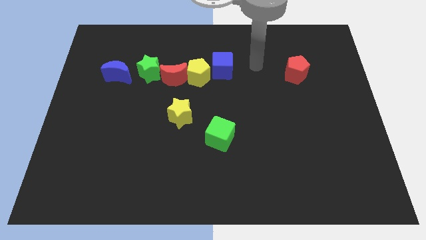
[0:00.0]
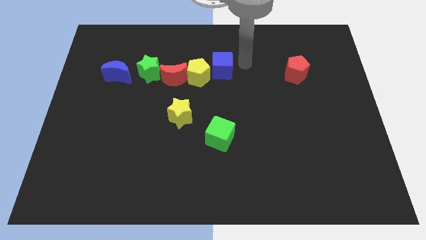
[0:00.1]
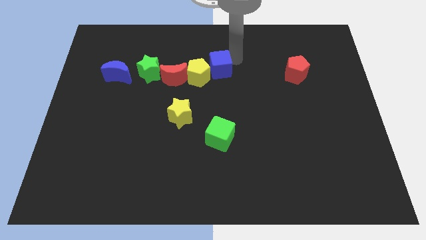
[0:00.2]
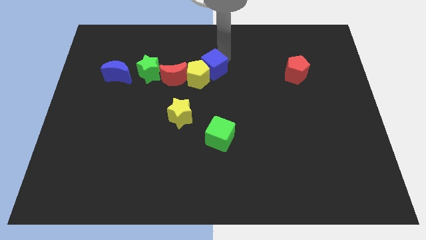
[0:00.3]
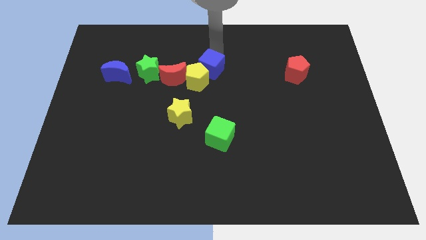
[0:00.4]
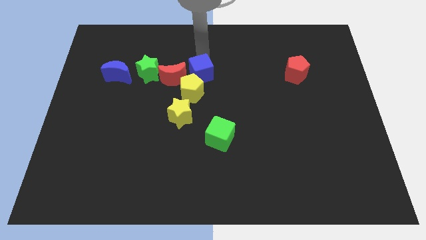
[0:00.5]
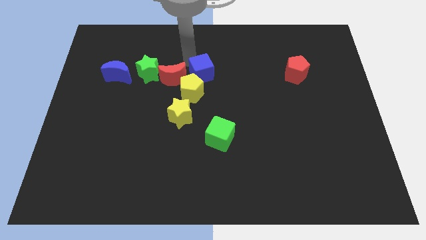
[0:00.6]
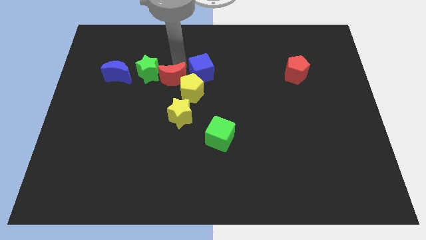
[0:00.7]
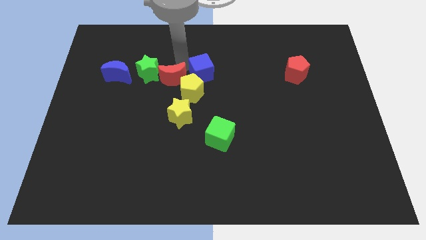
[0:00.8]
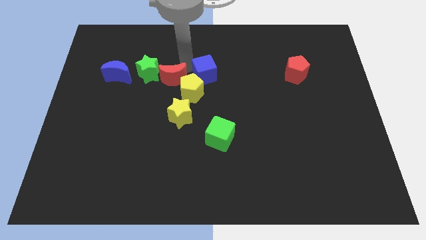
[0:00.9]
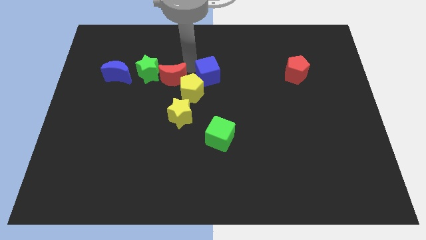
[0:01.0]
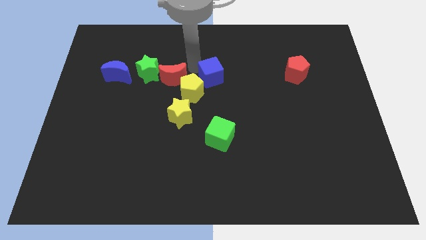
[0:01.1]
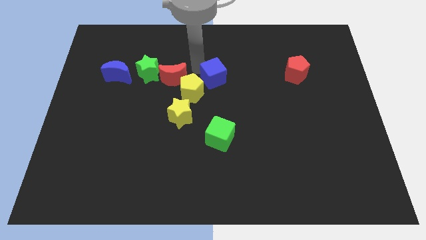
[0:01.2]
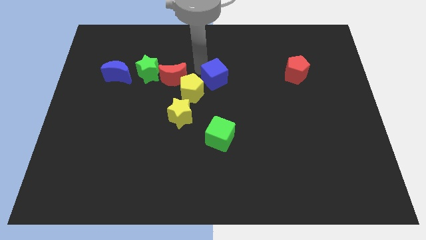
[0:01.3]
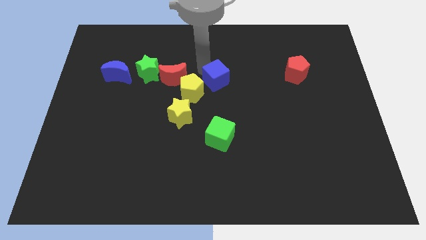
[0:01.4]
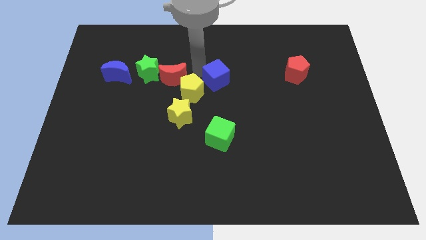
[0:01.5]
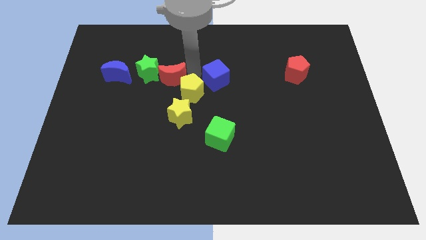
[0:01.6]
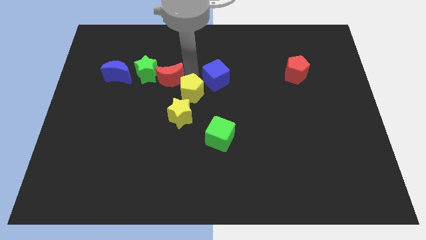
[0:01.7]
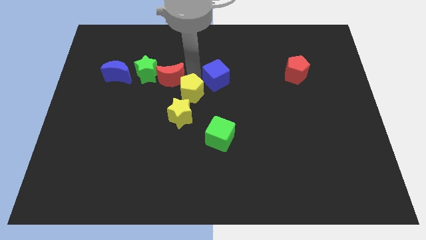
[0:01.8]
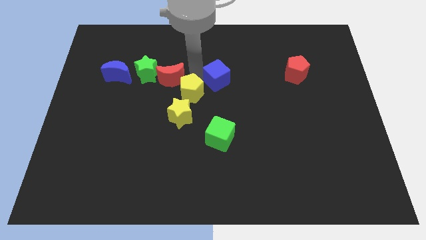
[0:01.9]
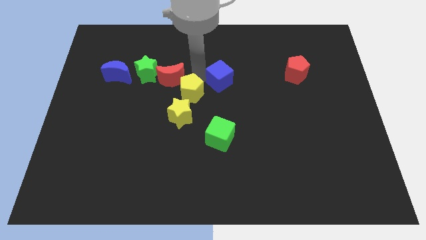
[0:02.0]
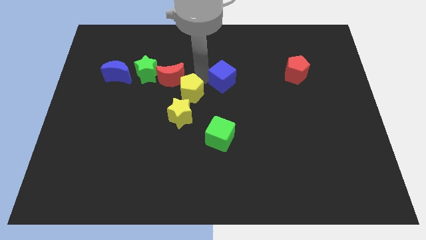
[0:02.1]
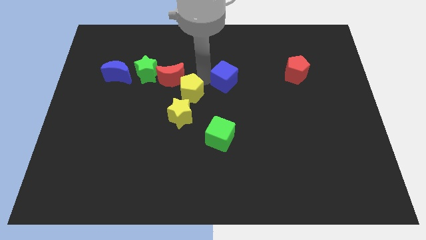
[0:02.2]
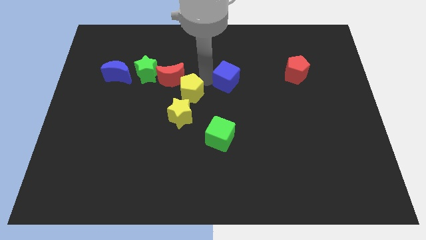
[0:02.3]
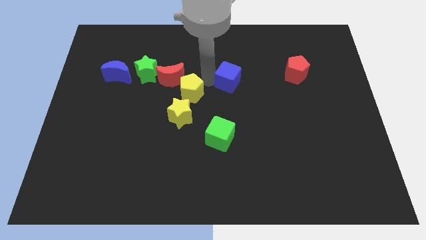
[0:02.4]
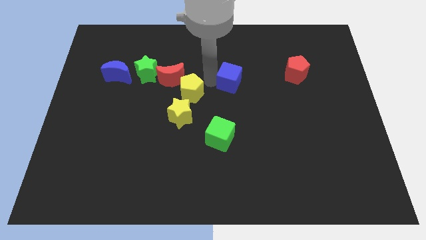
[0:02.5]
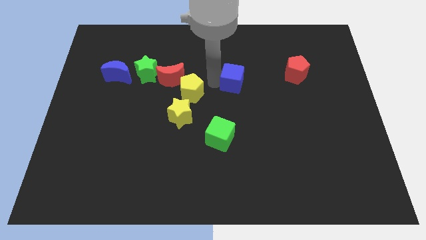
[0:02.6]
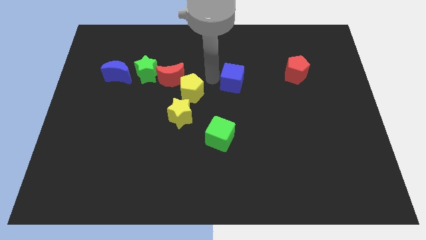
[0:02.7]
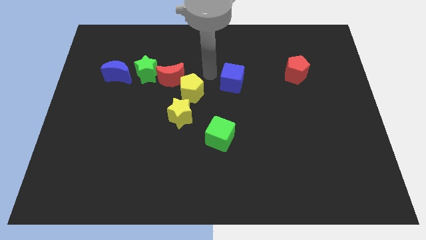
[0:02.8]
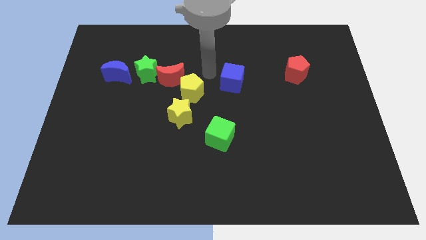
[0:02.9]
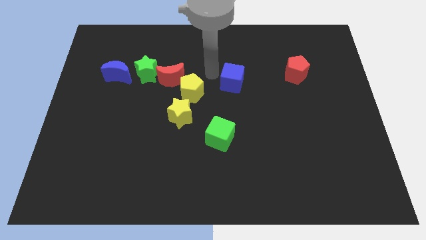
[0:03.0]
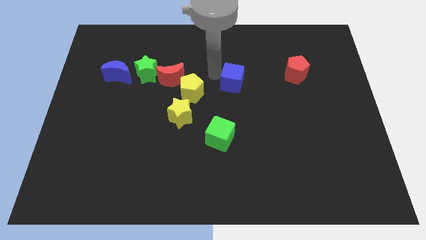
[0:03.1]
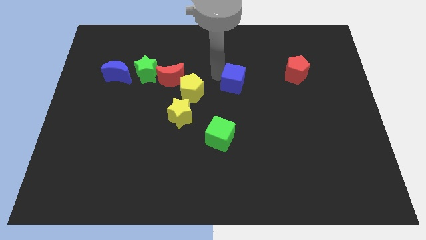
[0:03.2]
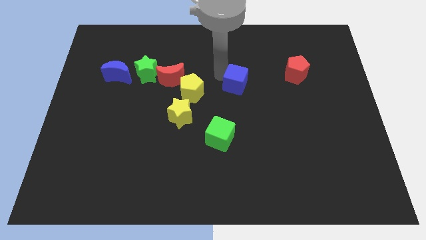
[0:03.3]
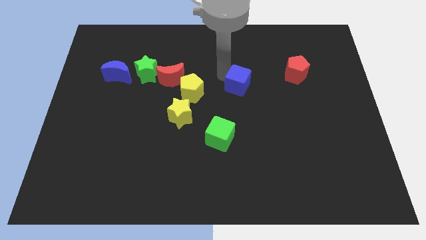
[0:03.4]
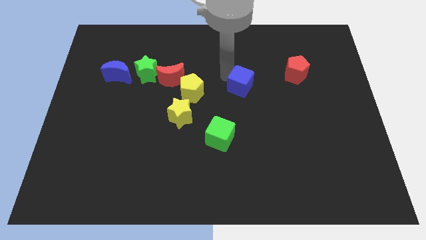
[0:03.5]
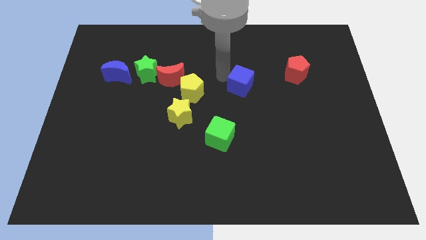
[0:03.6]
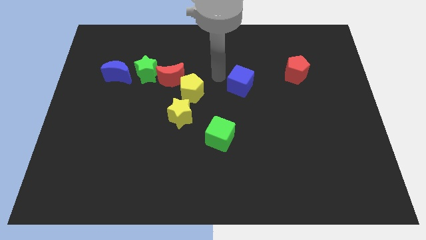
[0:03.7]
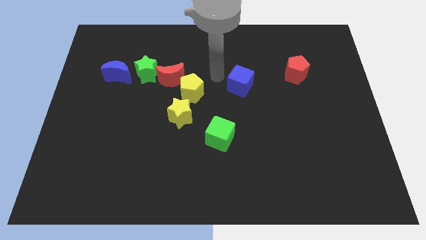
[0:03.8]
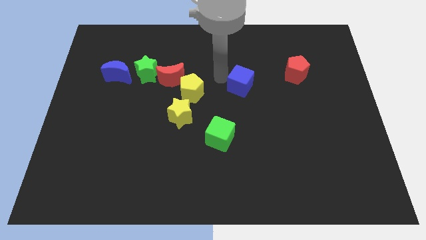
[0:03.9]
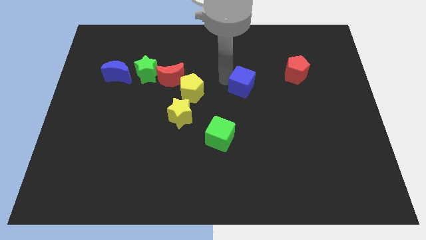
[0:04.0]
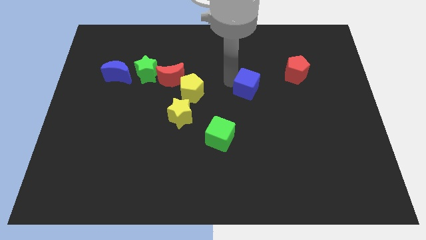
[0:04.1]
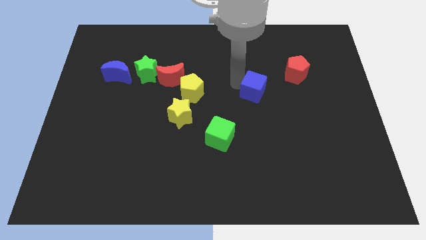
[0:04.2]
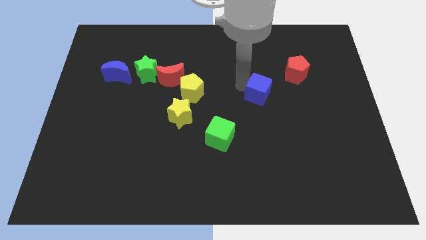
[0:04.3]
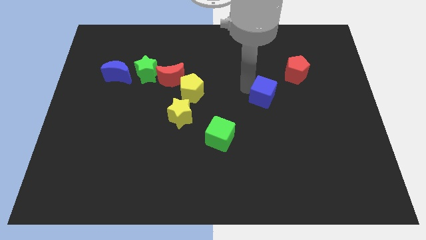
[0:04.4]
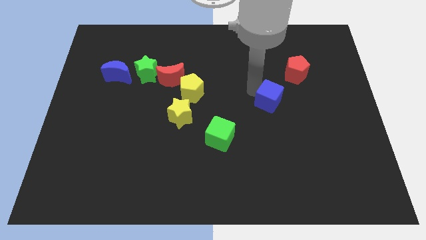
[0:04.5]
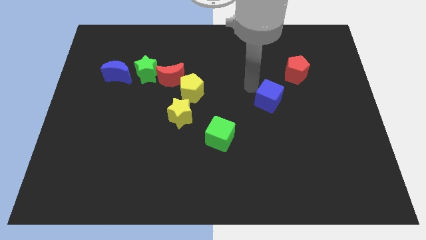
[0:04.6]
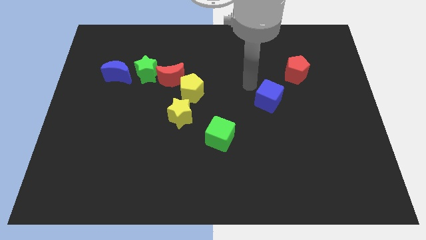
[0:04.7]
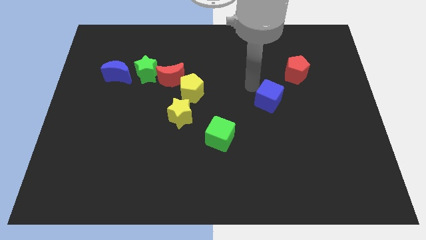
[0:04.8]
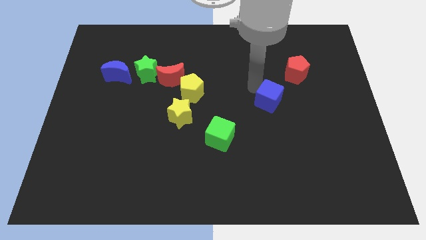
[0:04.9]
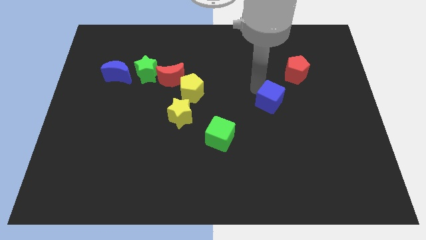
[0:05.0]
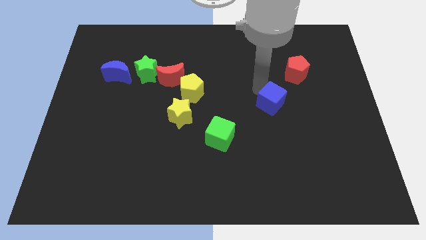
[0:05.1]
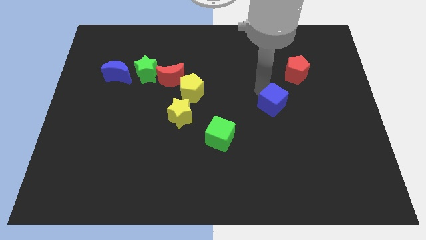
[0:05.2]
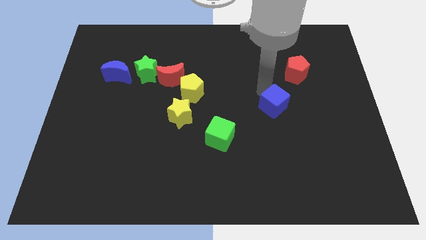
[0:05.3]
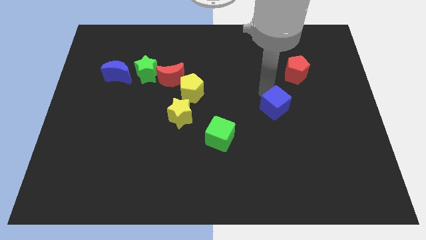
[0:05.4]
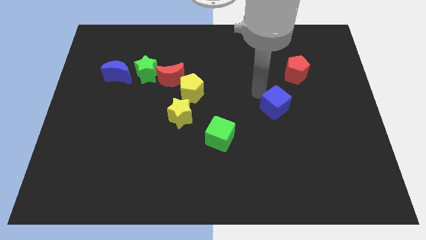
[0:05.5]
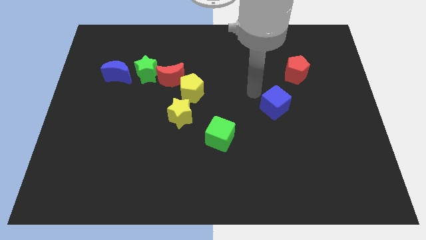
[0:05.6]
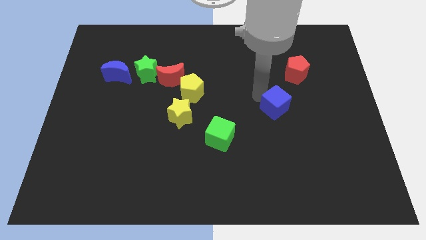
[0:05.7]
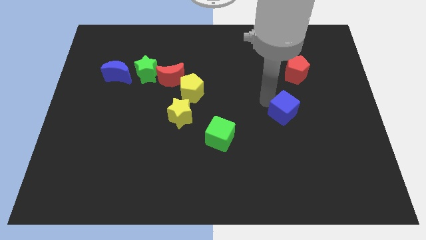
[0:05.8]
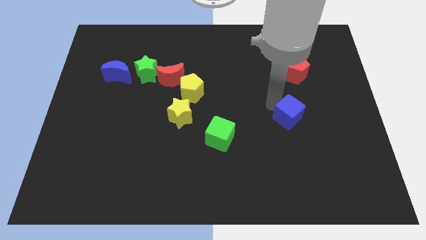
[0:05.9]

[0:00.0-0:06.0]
slide the blue cube downwards and right

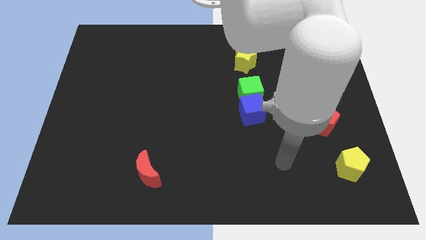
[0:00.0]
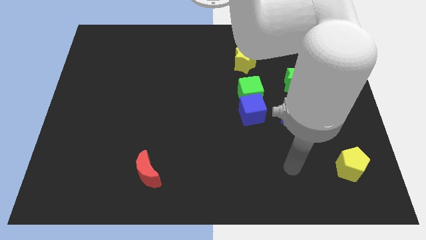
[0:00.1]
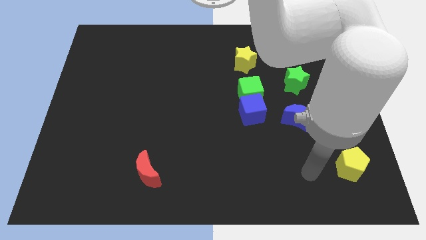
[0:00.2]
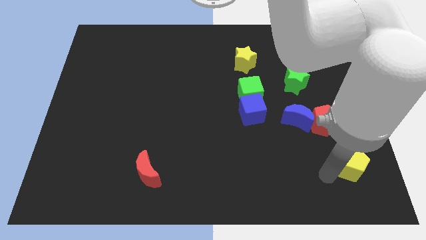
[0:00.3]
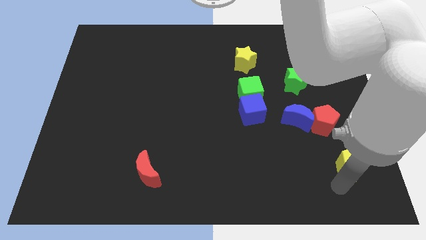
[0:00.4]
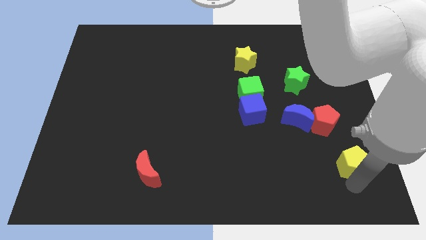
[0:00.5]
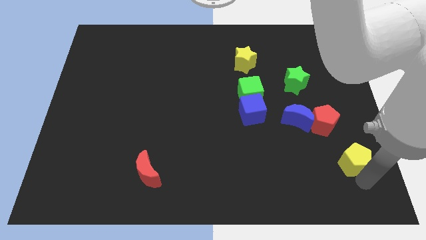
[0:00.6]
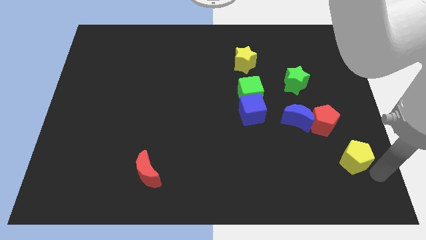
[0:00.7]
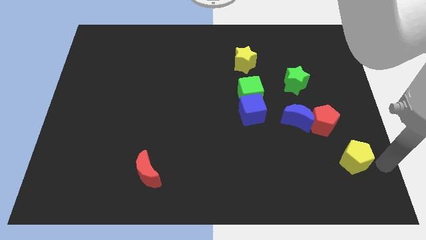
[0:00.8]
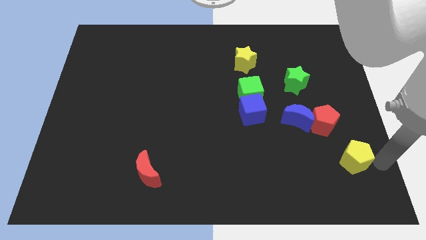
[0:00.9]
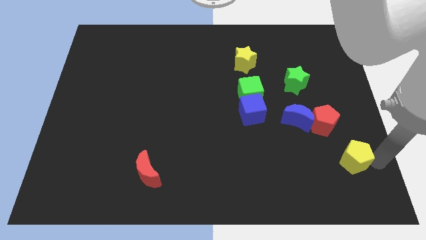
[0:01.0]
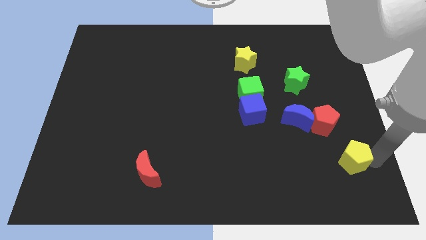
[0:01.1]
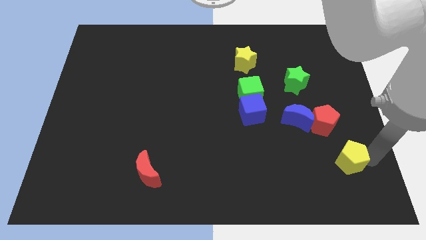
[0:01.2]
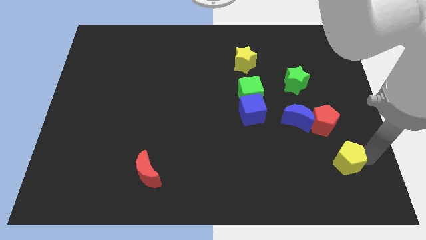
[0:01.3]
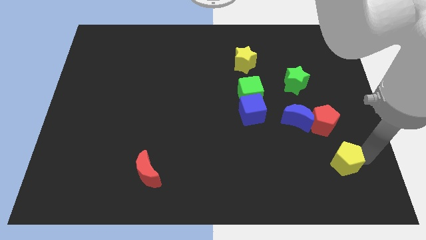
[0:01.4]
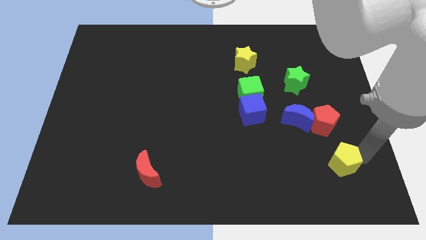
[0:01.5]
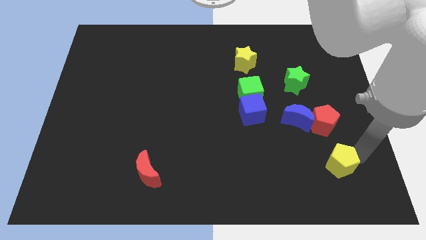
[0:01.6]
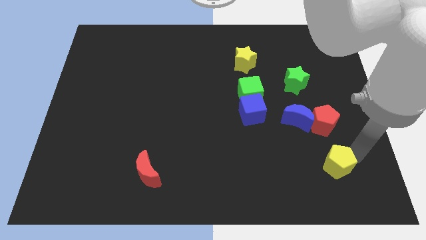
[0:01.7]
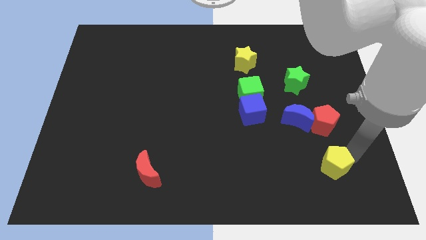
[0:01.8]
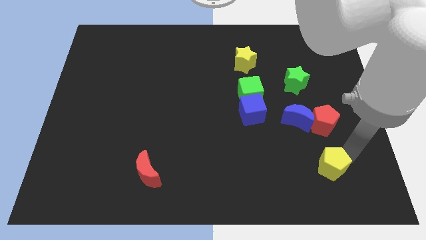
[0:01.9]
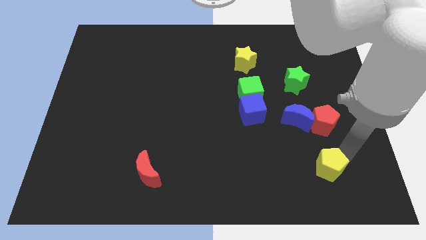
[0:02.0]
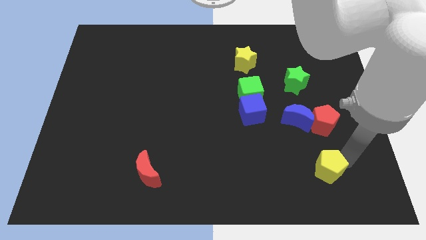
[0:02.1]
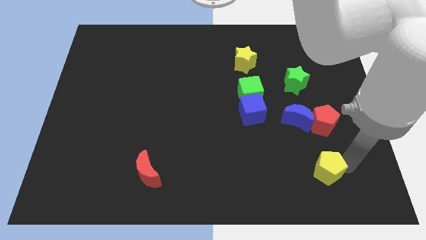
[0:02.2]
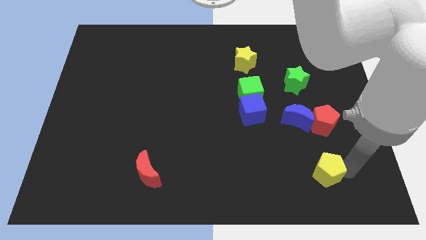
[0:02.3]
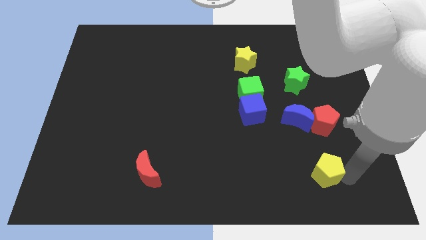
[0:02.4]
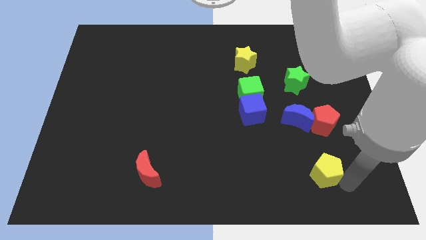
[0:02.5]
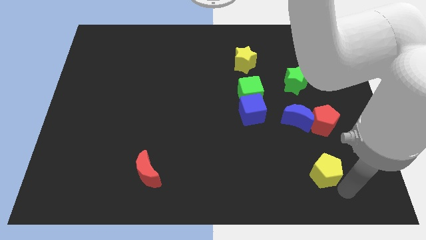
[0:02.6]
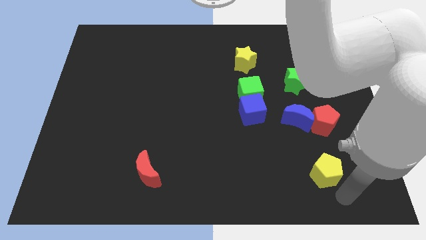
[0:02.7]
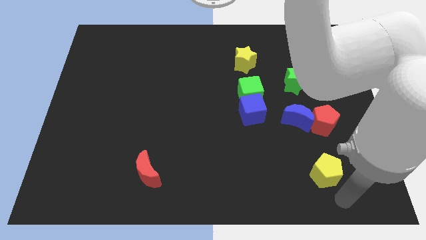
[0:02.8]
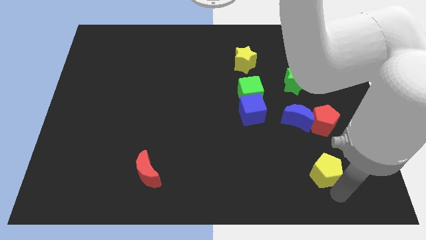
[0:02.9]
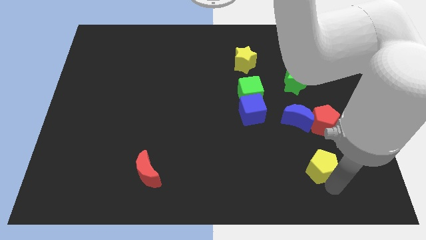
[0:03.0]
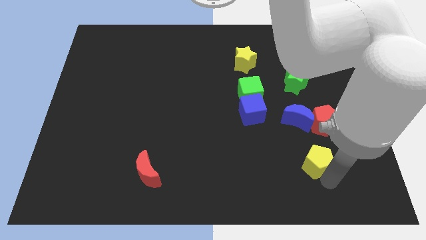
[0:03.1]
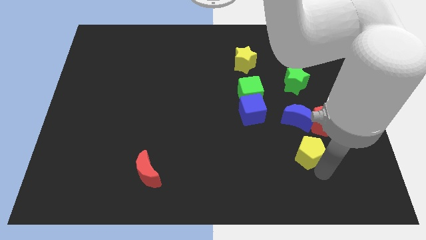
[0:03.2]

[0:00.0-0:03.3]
slightly move the yellow pentagon up and to the left
